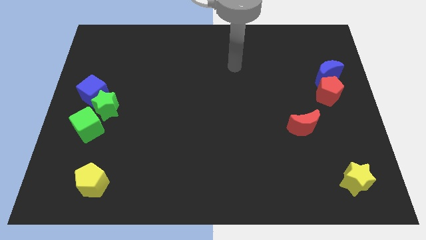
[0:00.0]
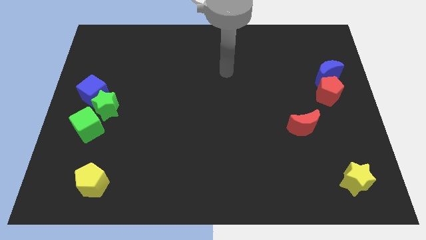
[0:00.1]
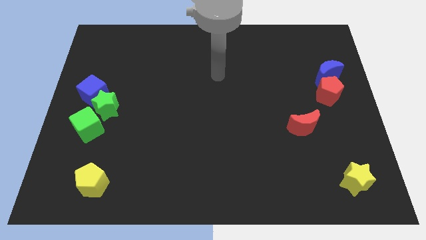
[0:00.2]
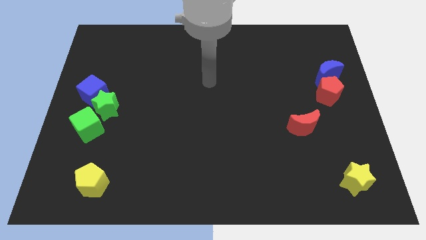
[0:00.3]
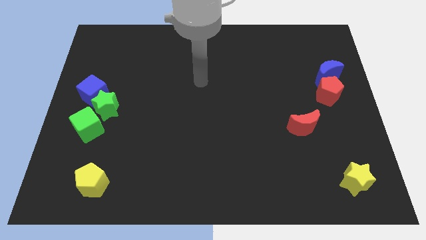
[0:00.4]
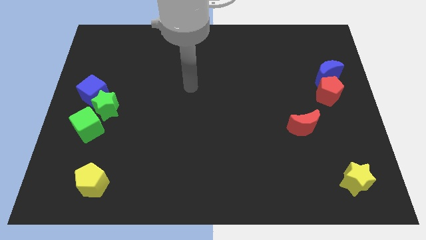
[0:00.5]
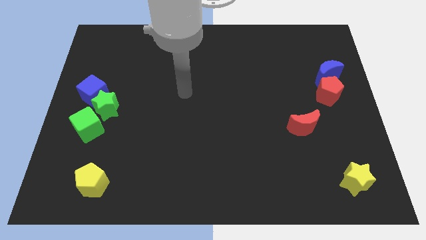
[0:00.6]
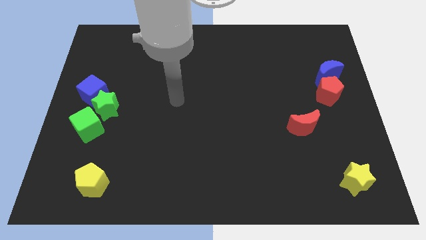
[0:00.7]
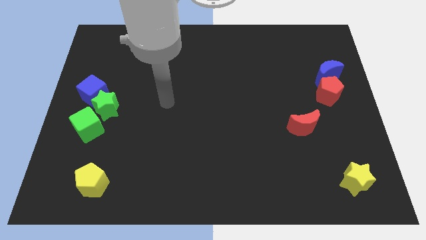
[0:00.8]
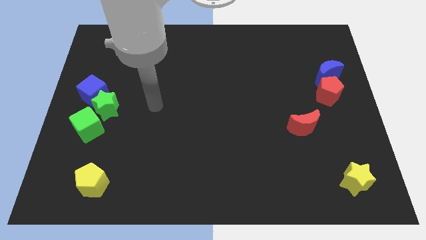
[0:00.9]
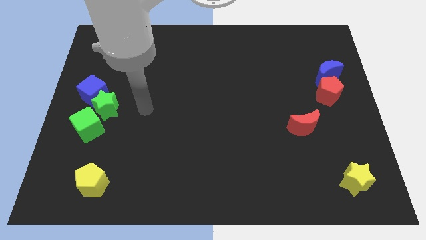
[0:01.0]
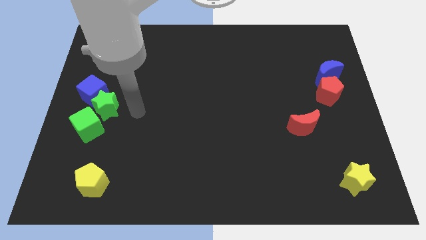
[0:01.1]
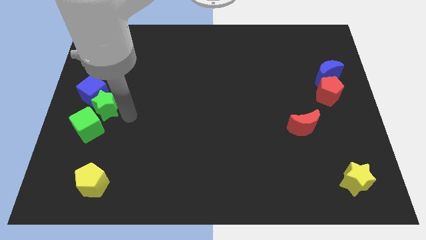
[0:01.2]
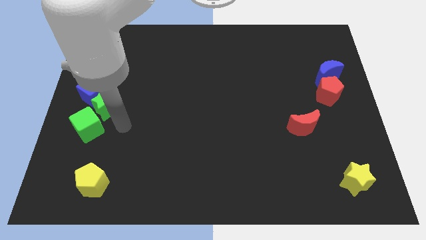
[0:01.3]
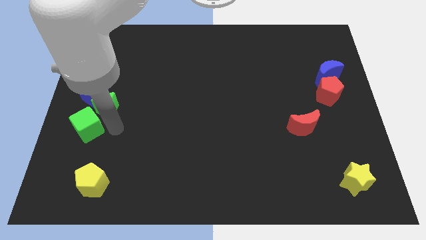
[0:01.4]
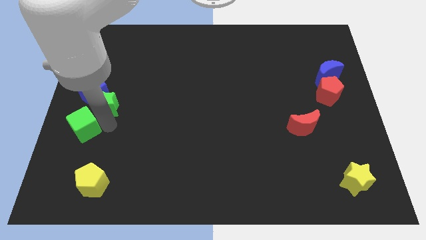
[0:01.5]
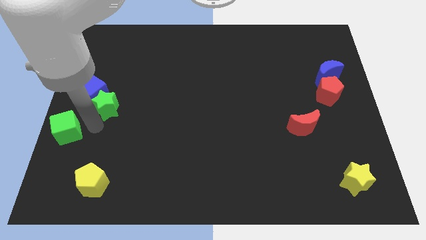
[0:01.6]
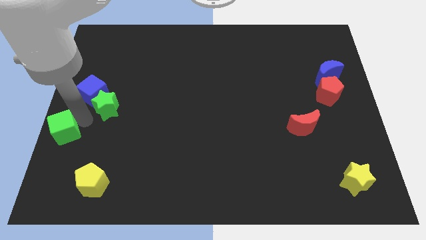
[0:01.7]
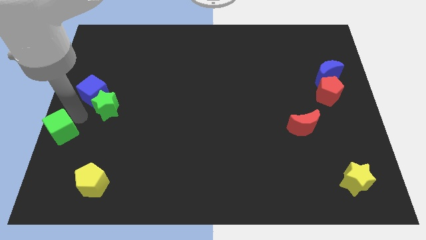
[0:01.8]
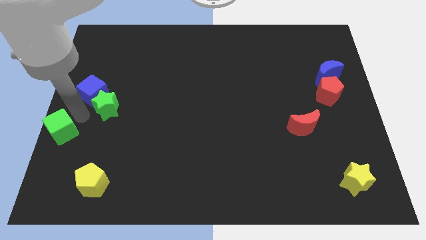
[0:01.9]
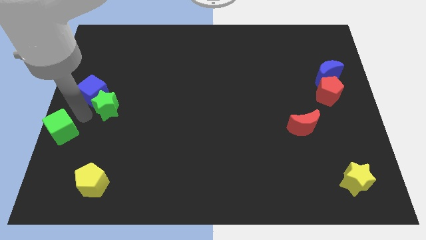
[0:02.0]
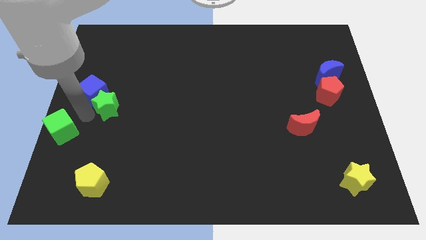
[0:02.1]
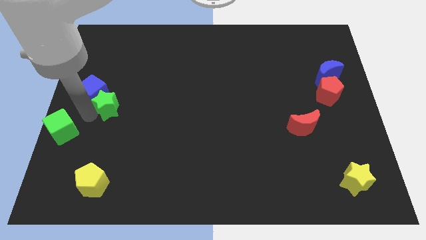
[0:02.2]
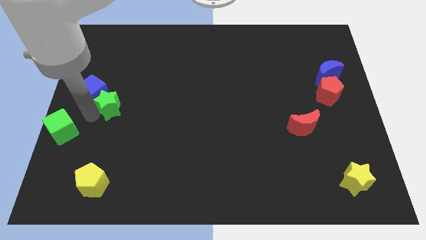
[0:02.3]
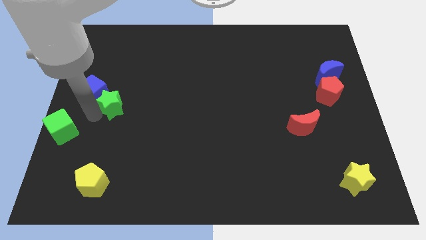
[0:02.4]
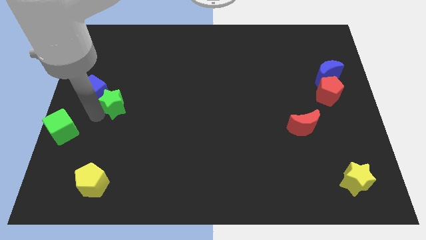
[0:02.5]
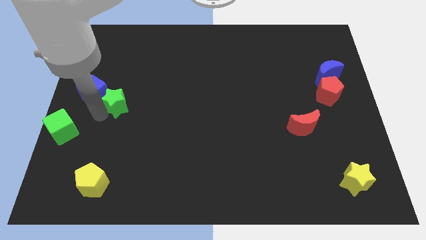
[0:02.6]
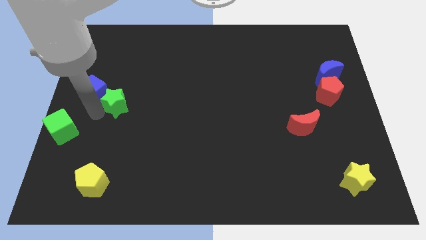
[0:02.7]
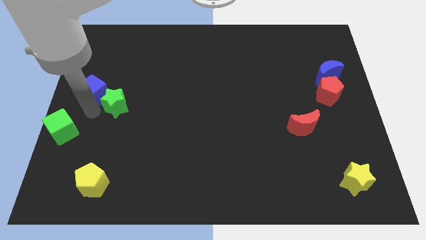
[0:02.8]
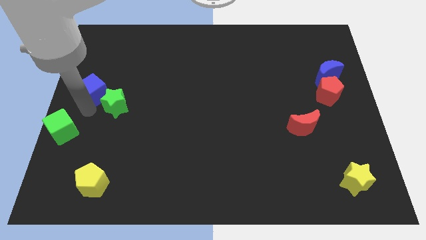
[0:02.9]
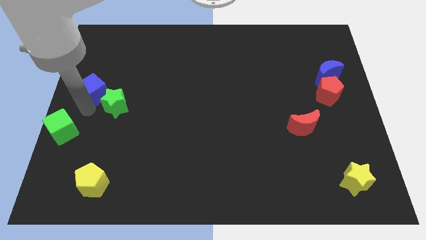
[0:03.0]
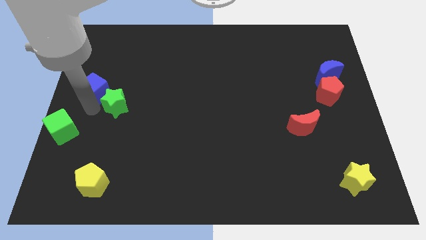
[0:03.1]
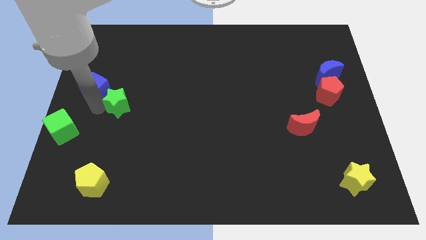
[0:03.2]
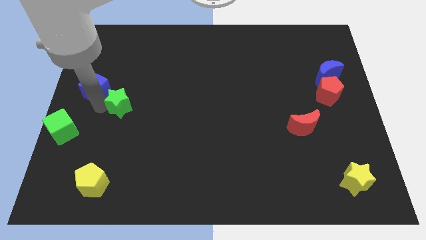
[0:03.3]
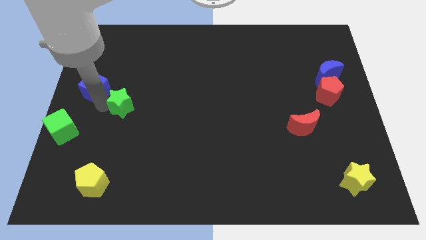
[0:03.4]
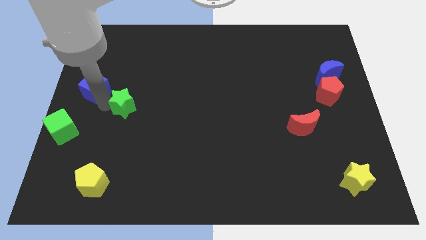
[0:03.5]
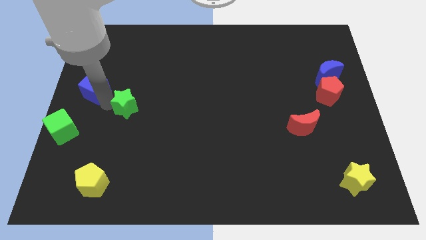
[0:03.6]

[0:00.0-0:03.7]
separate the green star from the blue cube and green cube

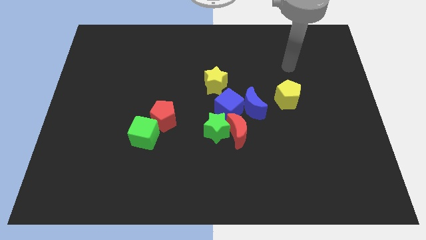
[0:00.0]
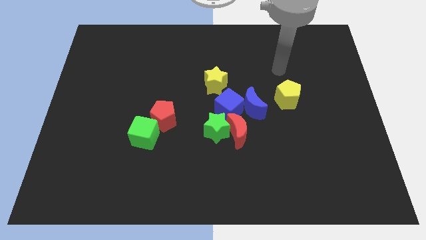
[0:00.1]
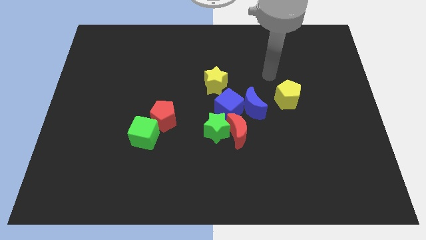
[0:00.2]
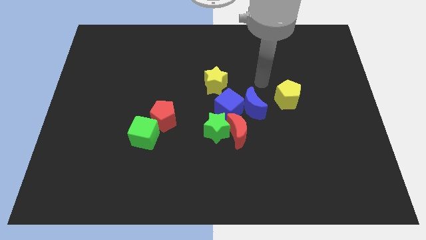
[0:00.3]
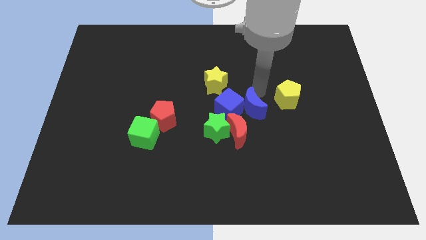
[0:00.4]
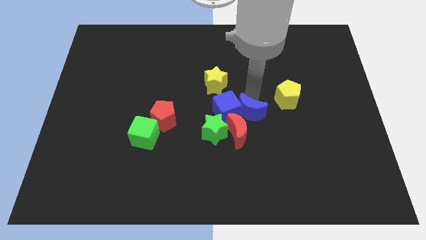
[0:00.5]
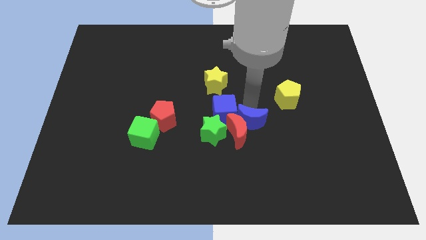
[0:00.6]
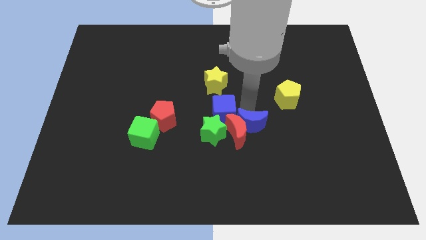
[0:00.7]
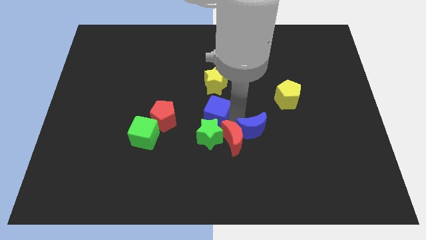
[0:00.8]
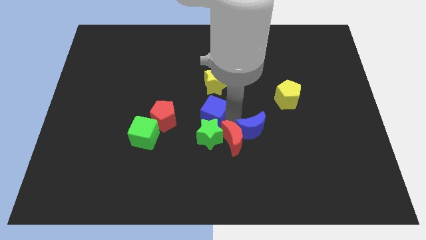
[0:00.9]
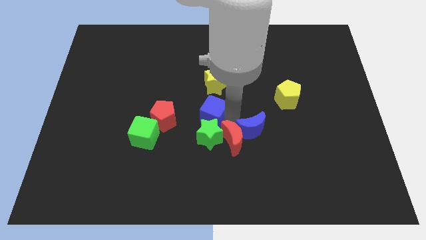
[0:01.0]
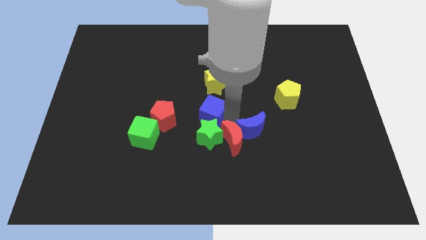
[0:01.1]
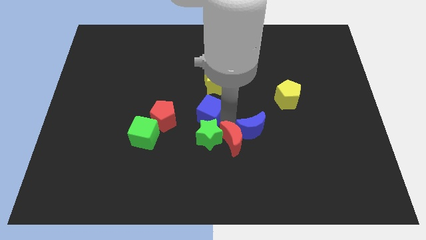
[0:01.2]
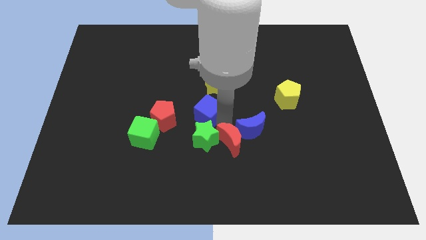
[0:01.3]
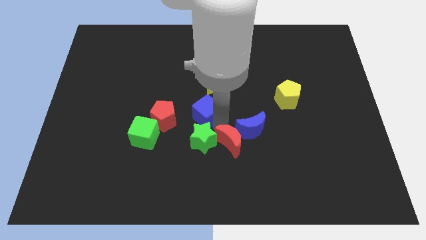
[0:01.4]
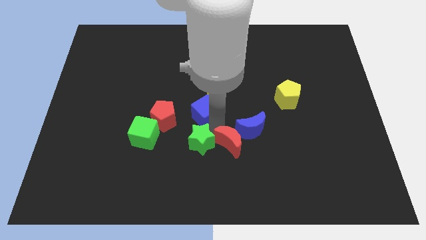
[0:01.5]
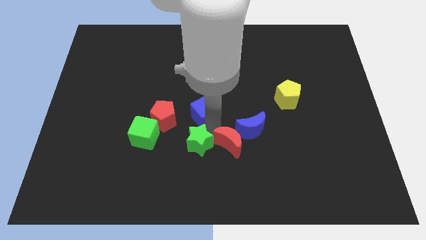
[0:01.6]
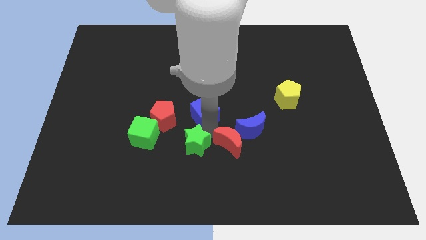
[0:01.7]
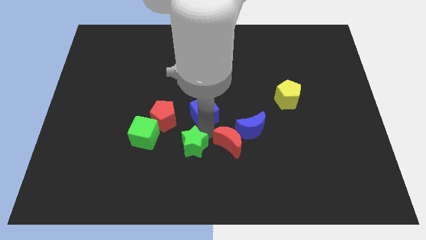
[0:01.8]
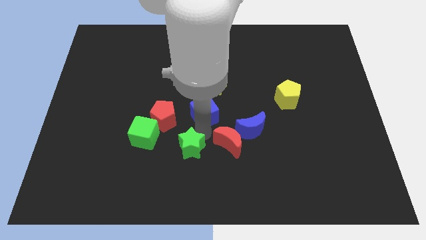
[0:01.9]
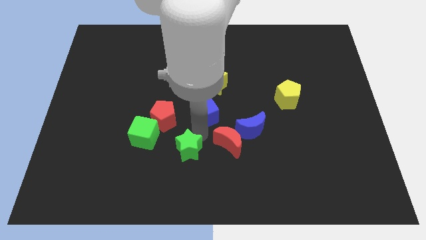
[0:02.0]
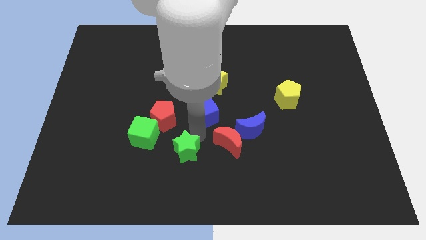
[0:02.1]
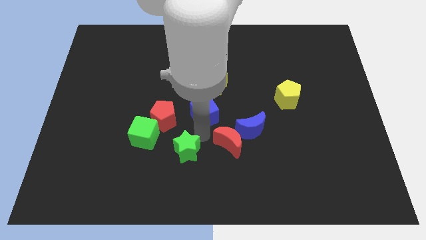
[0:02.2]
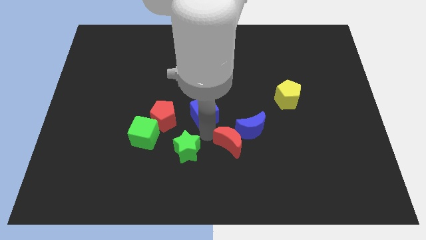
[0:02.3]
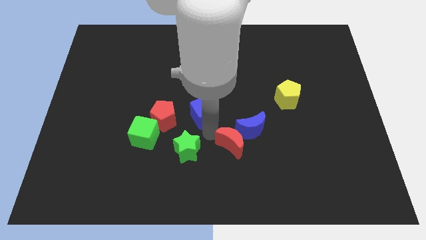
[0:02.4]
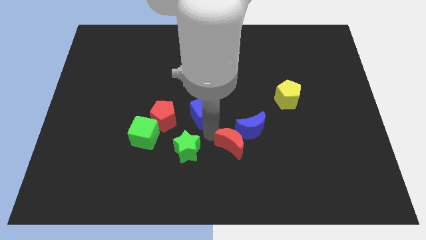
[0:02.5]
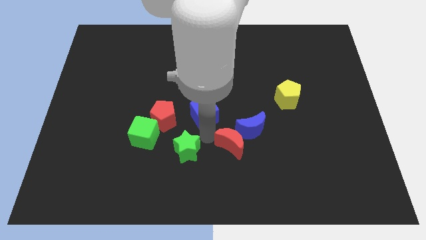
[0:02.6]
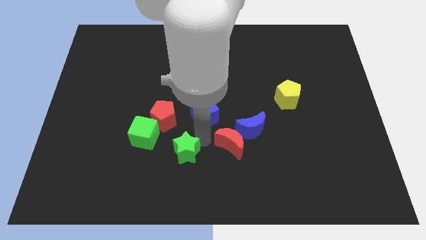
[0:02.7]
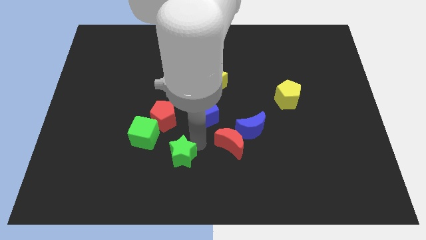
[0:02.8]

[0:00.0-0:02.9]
pull the green star apart from the red moon and blue cube

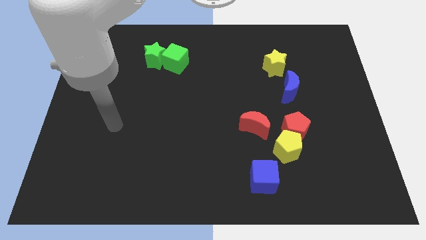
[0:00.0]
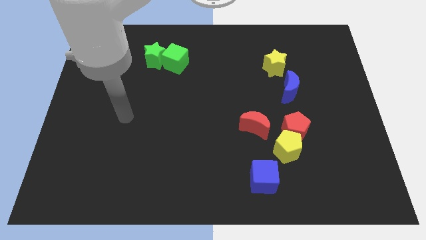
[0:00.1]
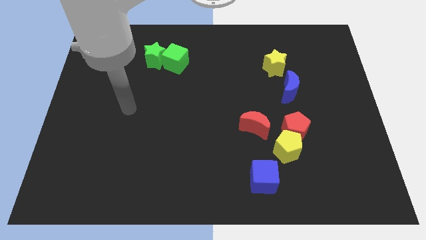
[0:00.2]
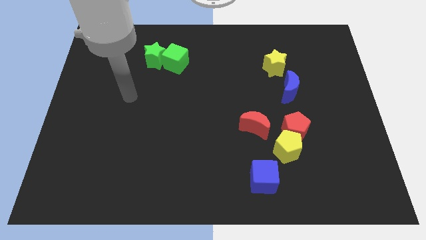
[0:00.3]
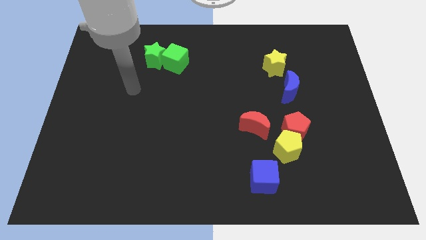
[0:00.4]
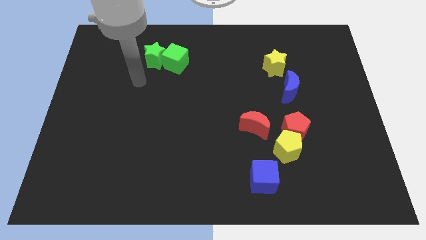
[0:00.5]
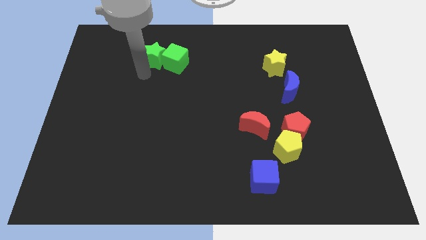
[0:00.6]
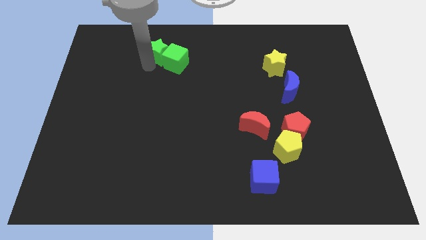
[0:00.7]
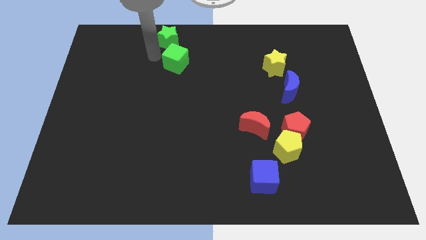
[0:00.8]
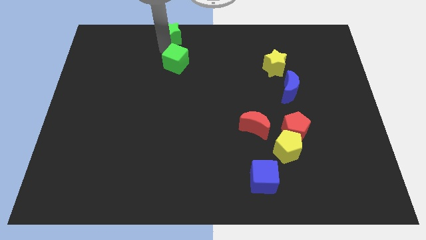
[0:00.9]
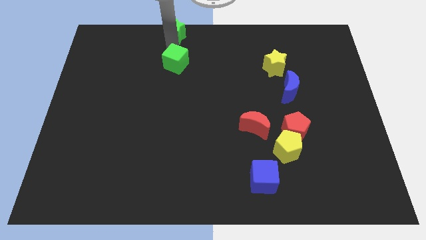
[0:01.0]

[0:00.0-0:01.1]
pull the green cube apart from the green star

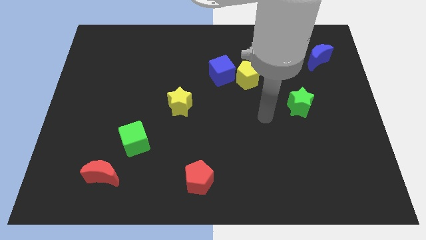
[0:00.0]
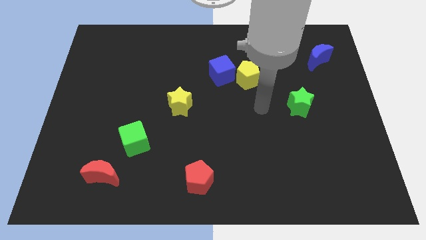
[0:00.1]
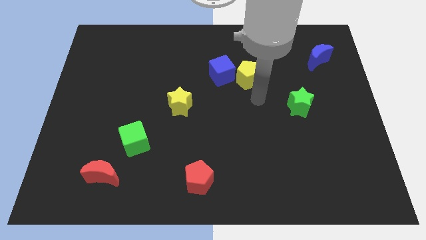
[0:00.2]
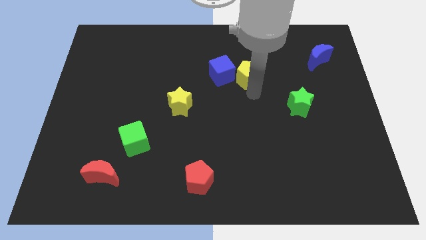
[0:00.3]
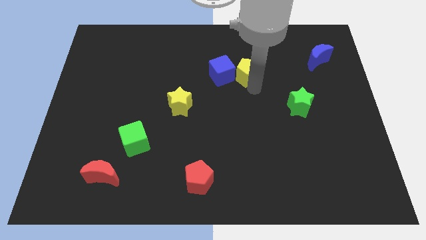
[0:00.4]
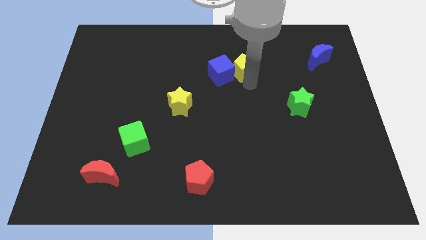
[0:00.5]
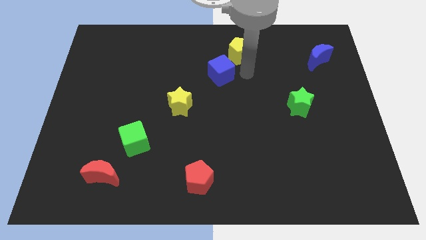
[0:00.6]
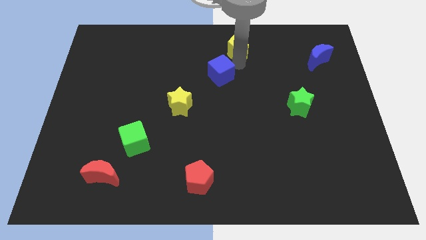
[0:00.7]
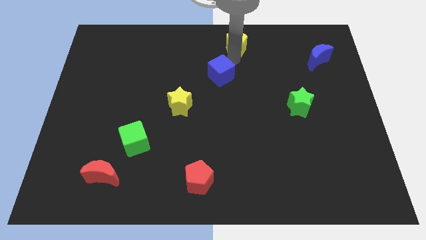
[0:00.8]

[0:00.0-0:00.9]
separate the blue cube from the yellow pentagon

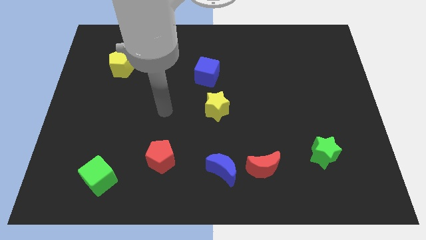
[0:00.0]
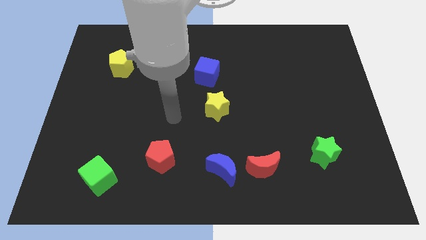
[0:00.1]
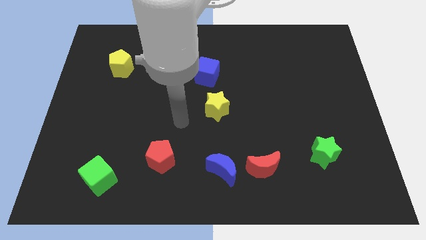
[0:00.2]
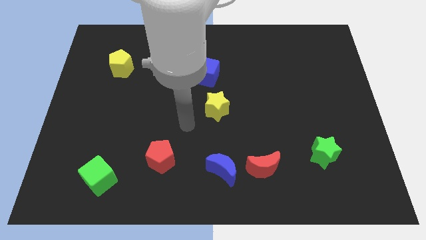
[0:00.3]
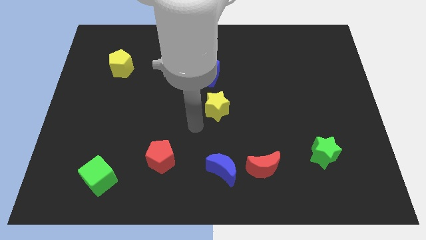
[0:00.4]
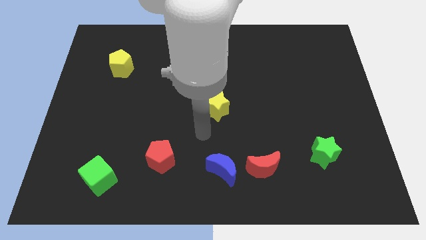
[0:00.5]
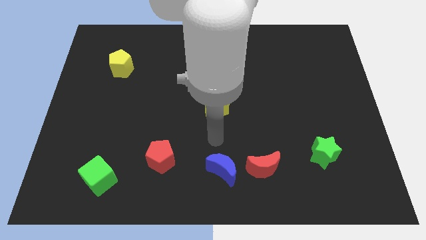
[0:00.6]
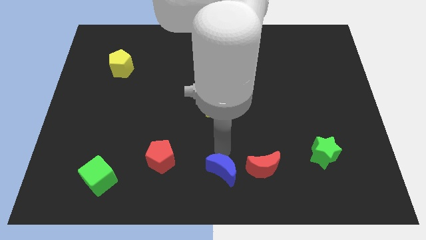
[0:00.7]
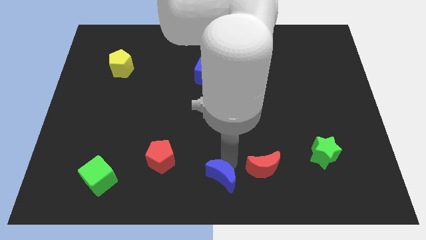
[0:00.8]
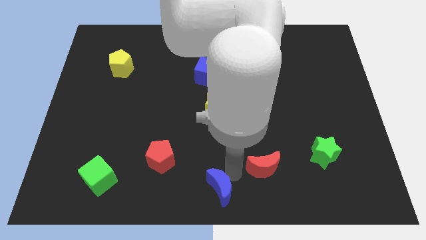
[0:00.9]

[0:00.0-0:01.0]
pull the red moon apart from the blue moon
